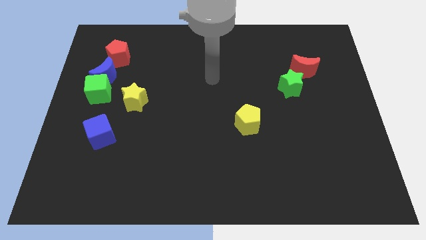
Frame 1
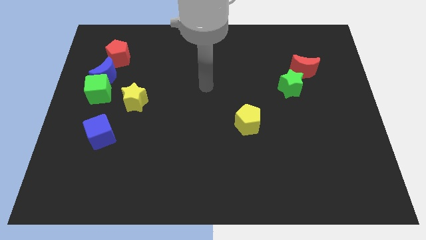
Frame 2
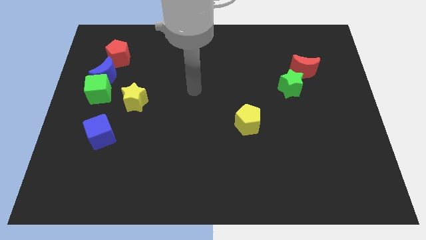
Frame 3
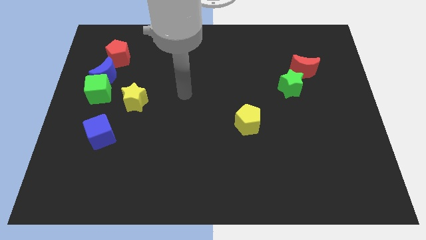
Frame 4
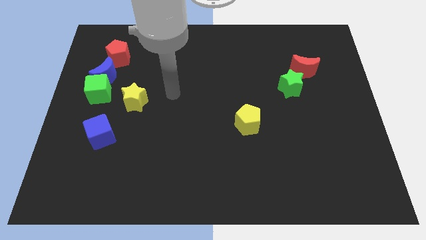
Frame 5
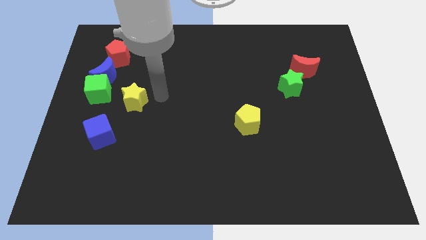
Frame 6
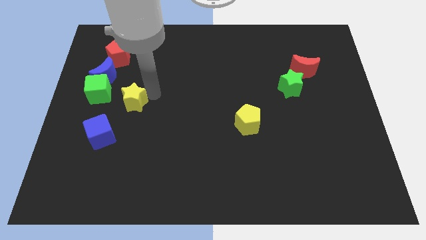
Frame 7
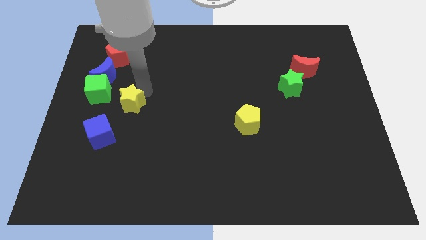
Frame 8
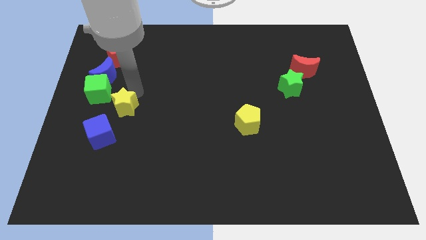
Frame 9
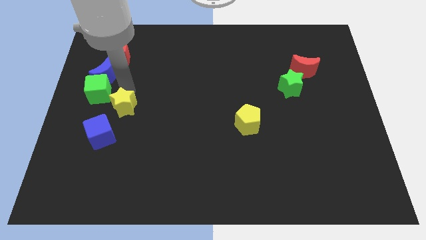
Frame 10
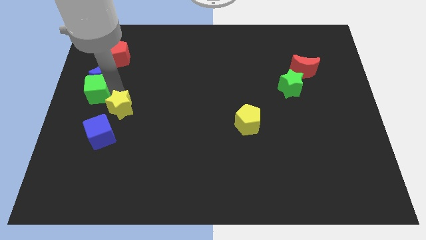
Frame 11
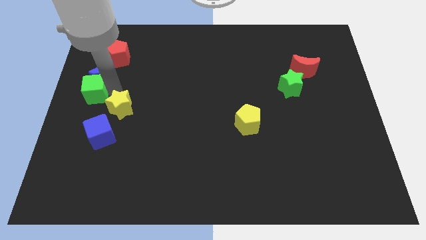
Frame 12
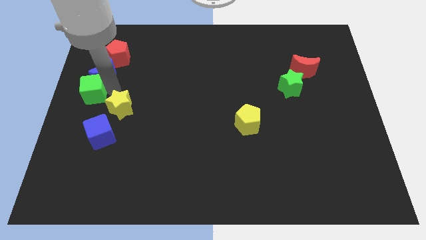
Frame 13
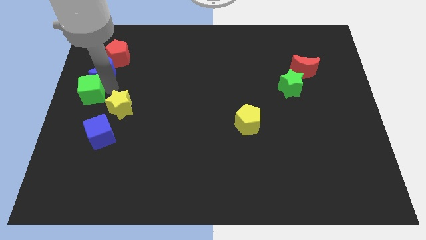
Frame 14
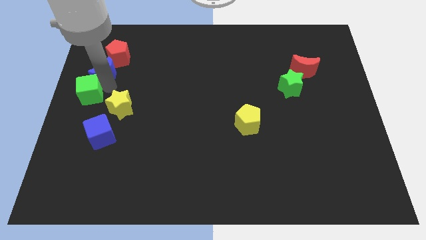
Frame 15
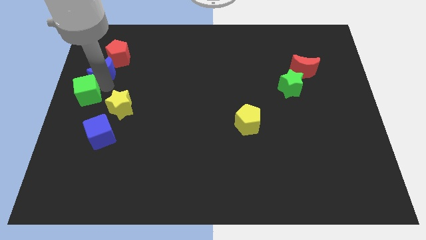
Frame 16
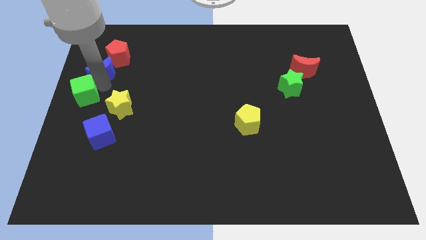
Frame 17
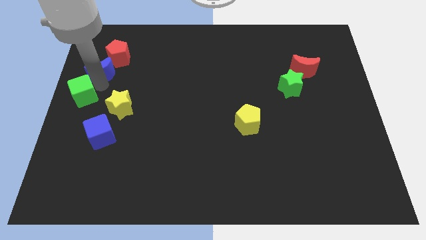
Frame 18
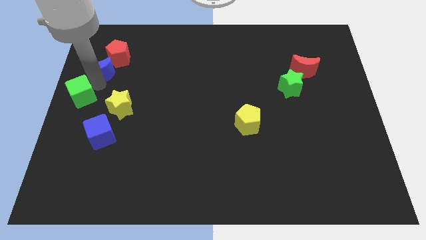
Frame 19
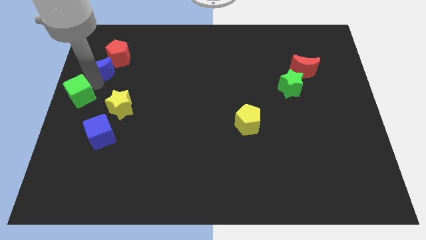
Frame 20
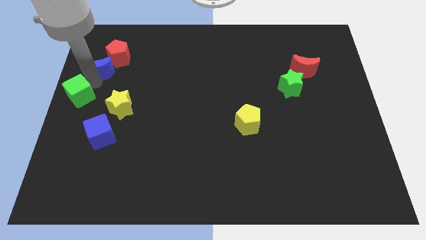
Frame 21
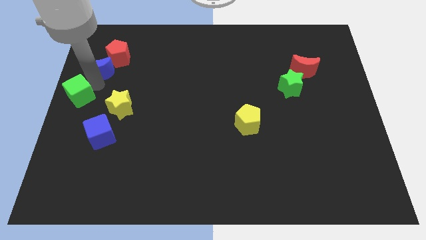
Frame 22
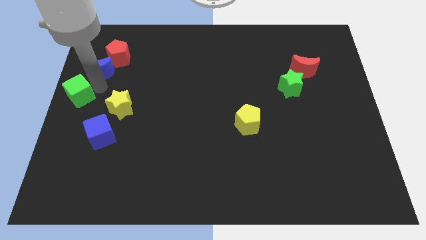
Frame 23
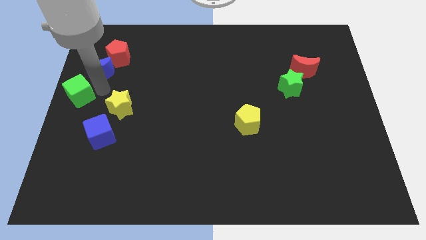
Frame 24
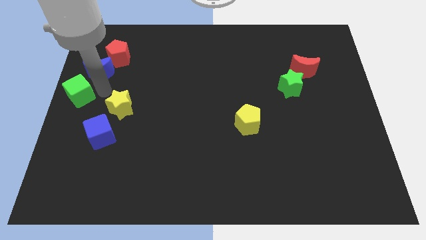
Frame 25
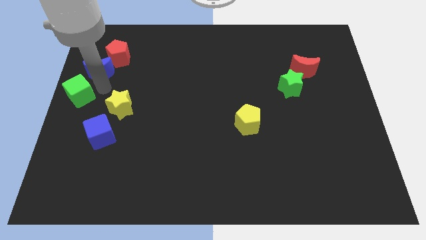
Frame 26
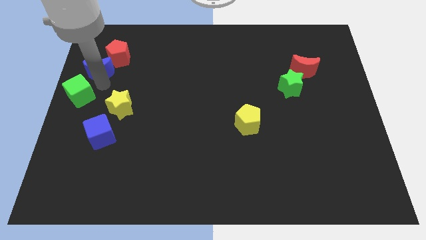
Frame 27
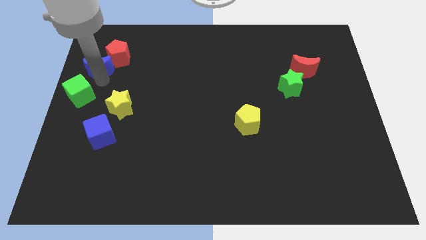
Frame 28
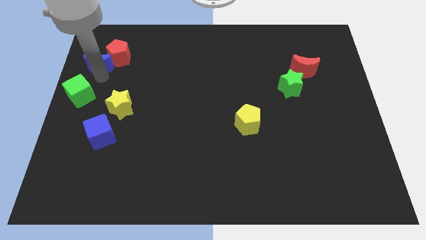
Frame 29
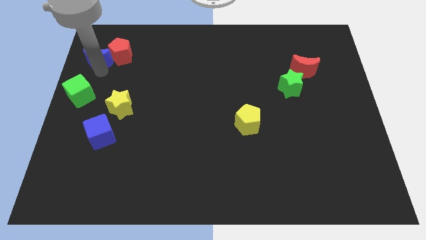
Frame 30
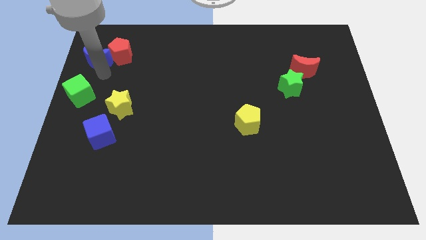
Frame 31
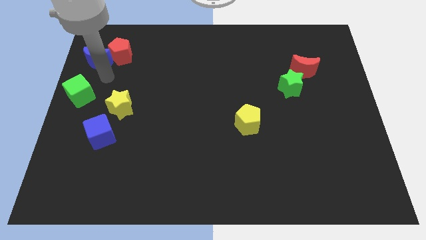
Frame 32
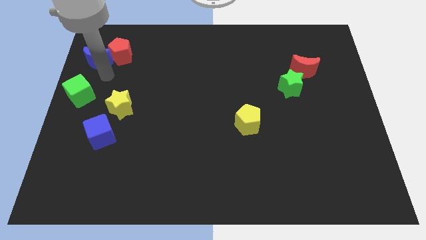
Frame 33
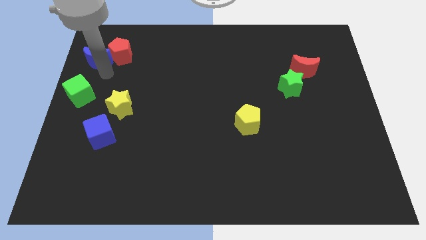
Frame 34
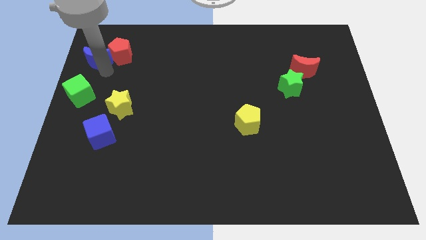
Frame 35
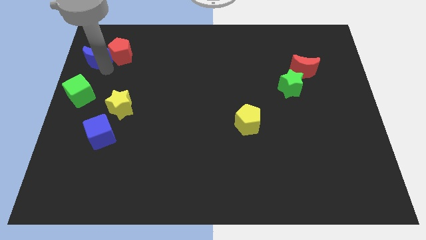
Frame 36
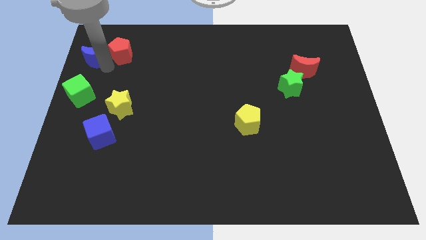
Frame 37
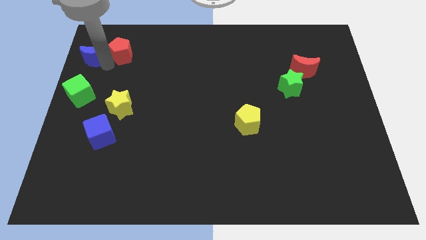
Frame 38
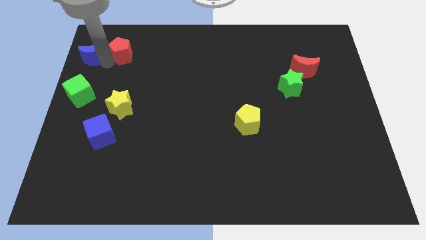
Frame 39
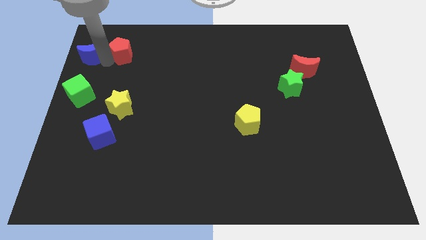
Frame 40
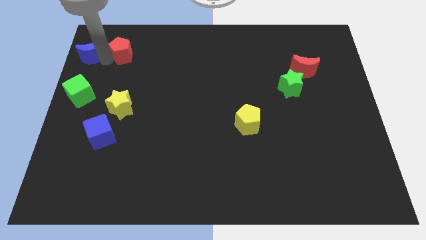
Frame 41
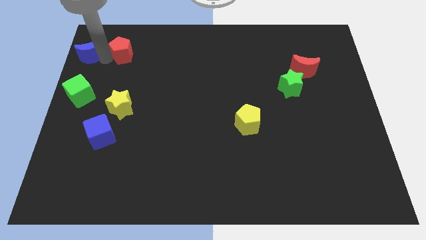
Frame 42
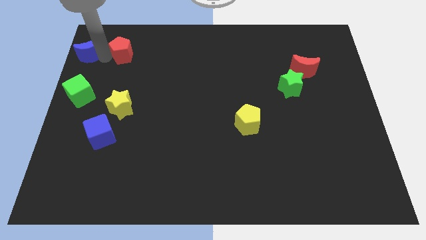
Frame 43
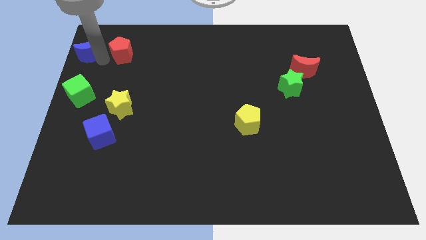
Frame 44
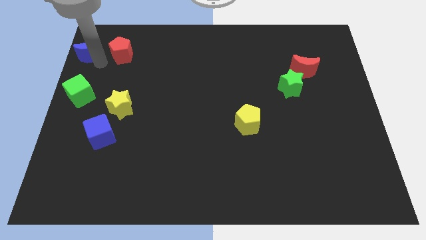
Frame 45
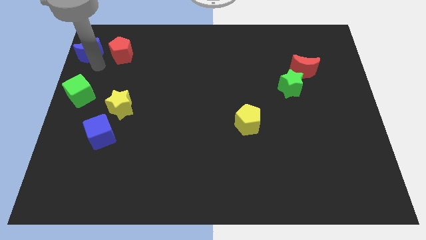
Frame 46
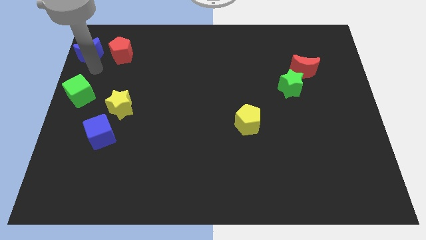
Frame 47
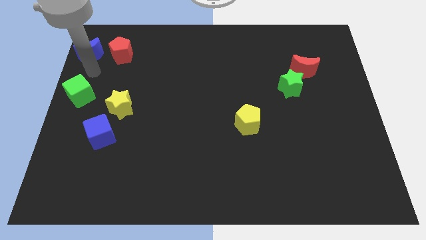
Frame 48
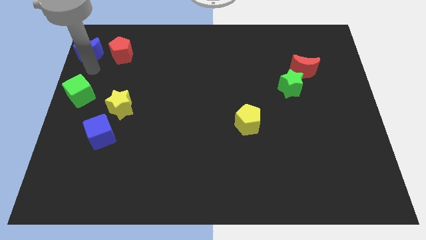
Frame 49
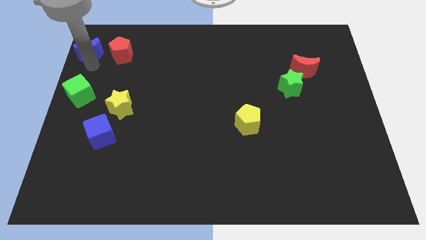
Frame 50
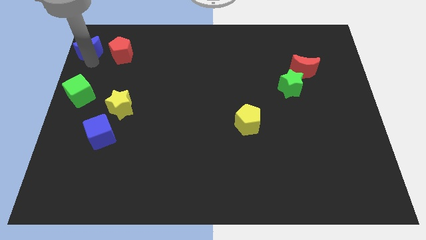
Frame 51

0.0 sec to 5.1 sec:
push the blue moon to the top left corner

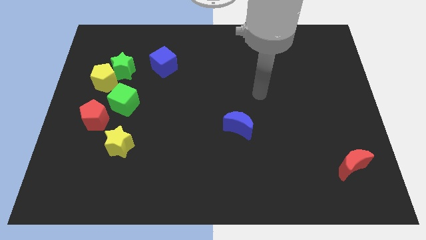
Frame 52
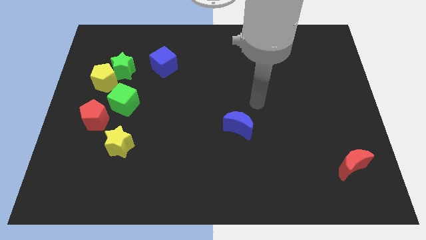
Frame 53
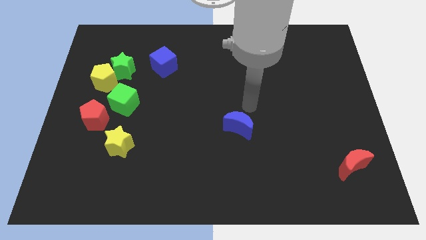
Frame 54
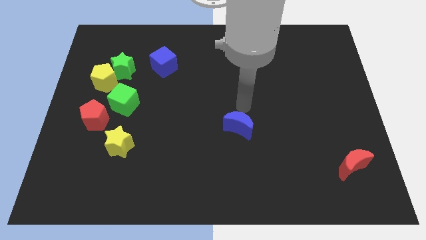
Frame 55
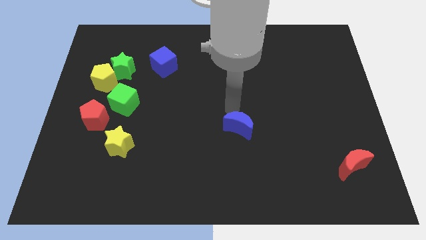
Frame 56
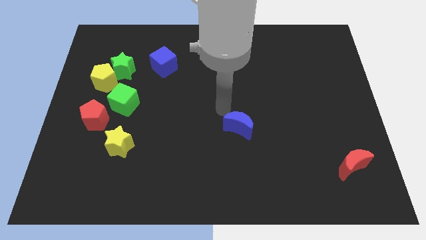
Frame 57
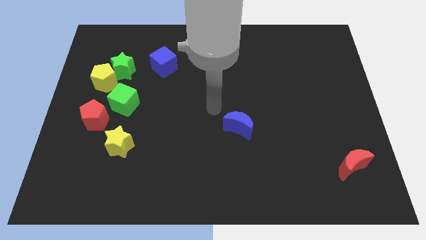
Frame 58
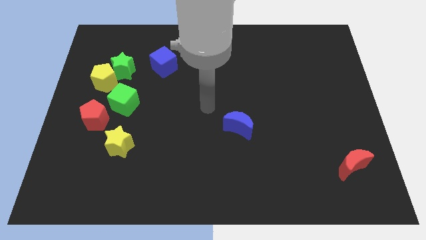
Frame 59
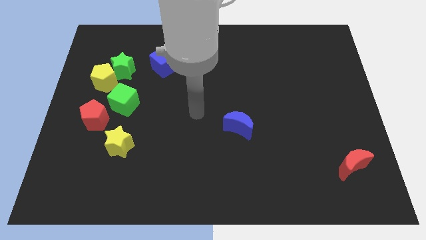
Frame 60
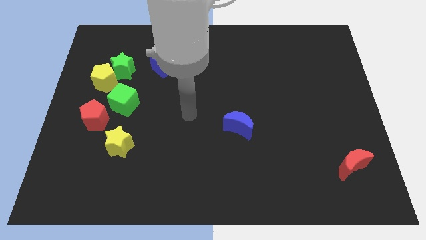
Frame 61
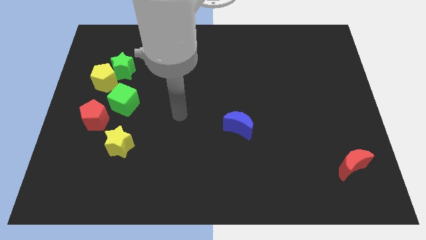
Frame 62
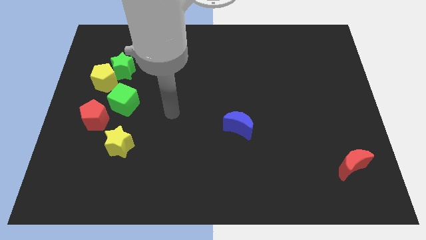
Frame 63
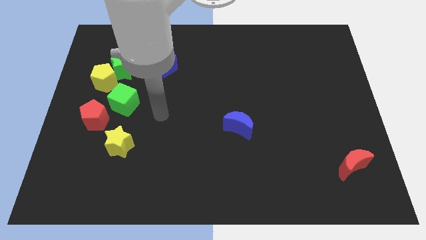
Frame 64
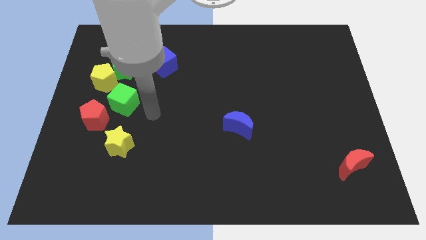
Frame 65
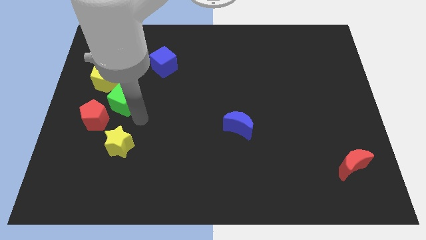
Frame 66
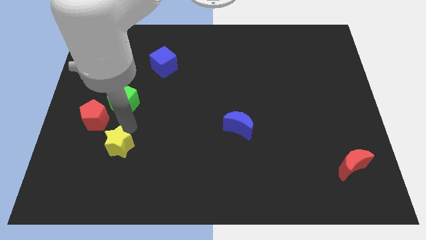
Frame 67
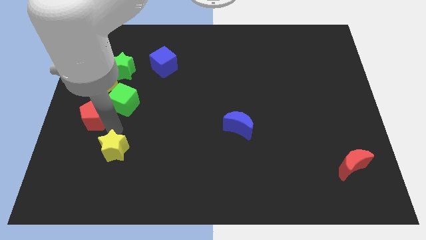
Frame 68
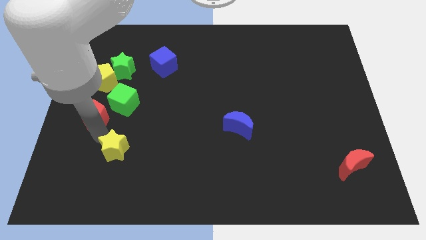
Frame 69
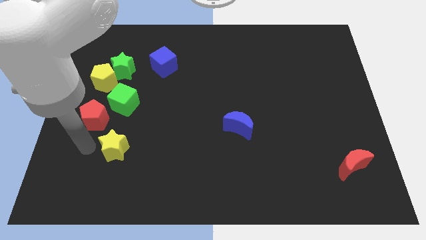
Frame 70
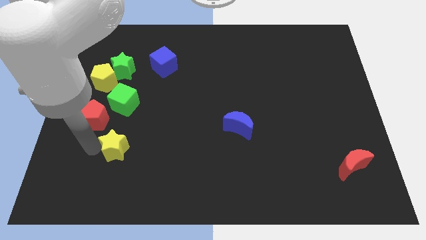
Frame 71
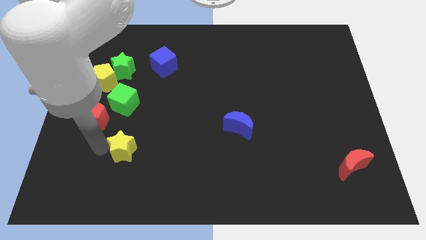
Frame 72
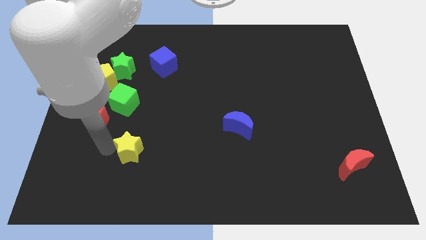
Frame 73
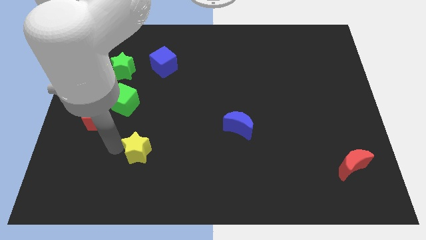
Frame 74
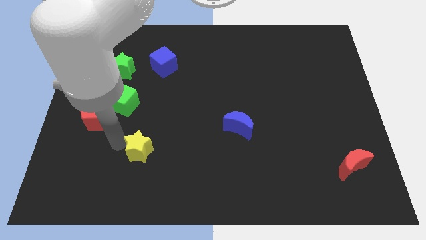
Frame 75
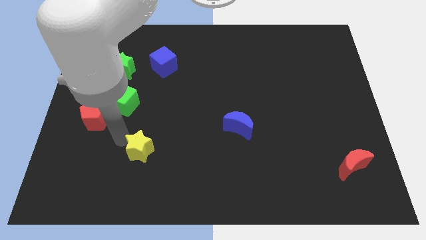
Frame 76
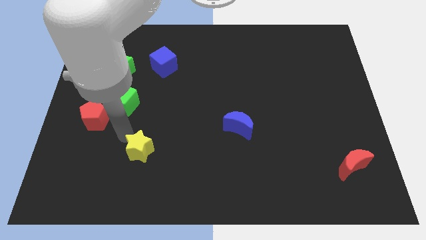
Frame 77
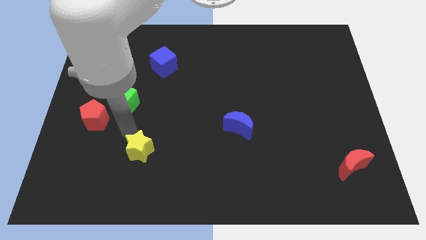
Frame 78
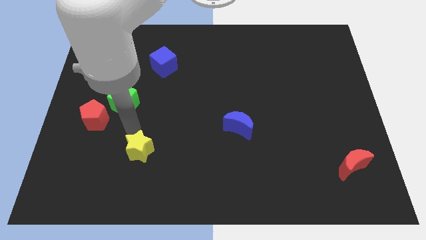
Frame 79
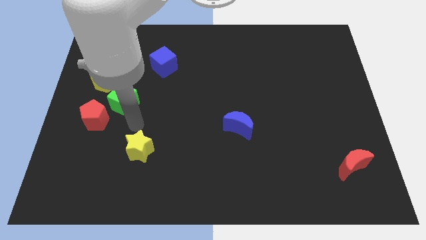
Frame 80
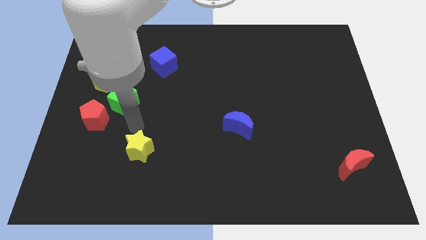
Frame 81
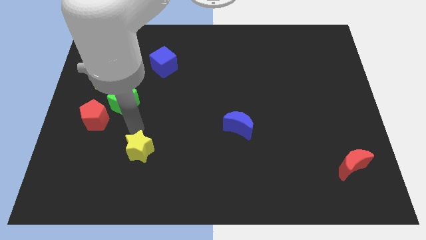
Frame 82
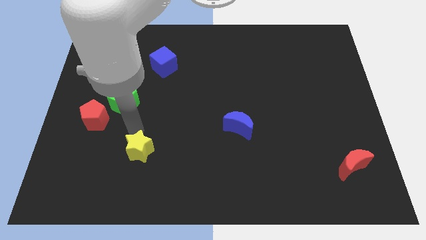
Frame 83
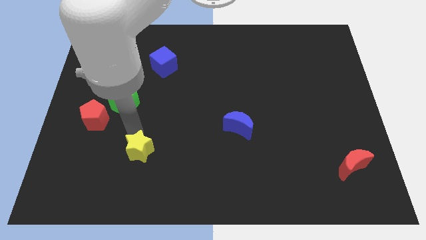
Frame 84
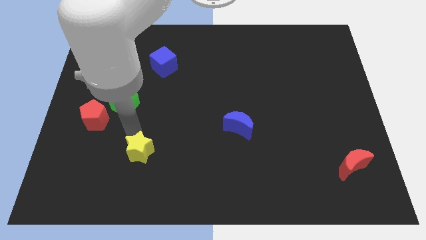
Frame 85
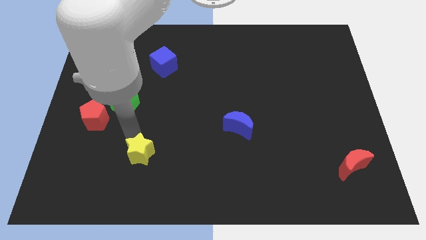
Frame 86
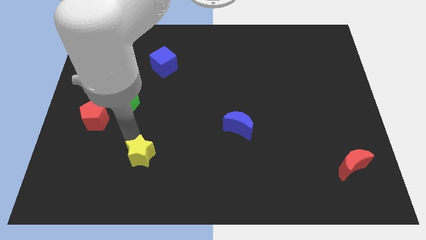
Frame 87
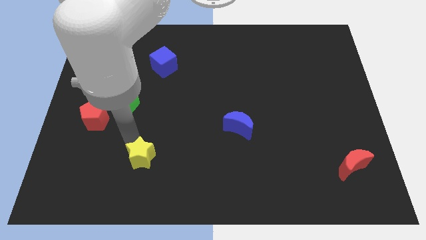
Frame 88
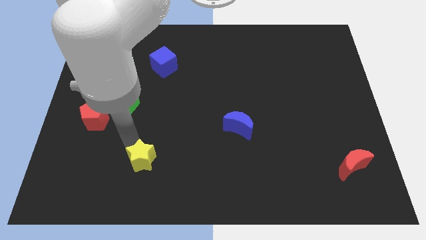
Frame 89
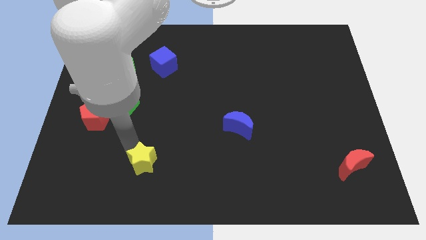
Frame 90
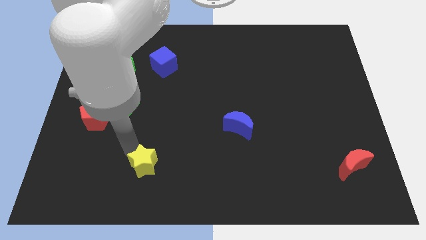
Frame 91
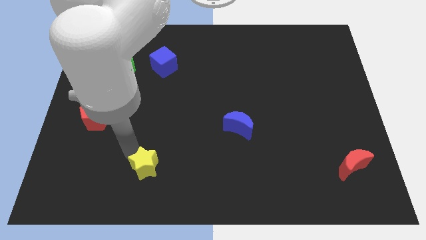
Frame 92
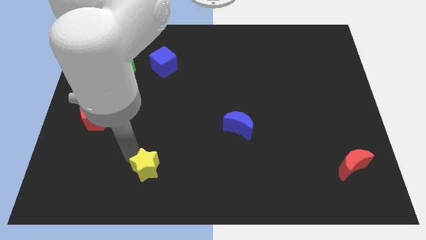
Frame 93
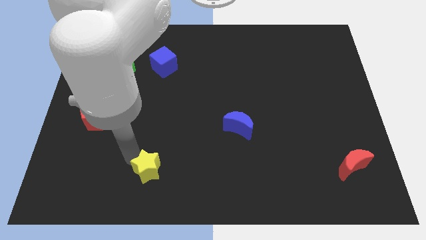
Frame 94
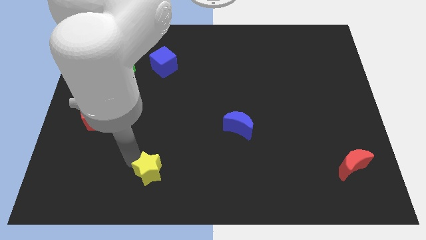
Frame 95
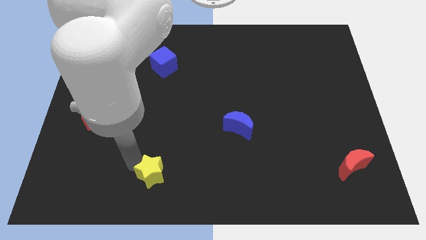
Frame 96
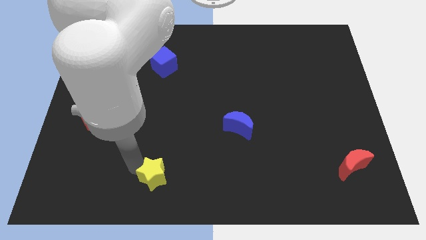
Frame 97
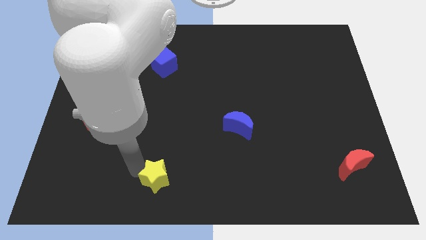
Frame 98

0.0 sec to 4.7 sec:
push the yellow star to the bottom side
